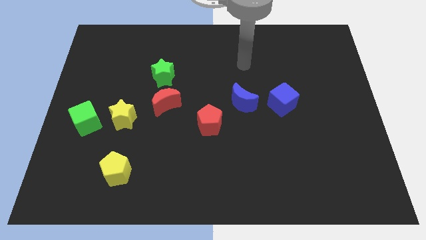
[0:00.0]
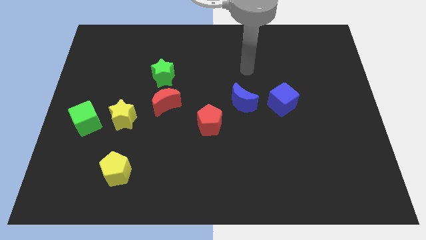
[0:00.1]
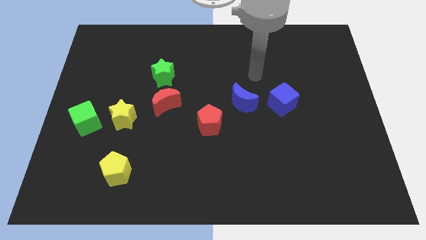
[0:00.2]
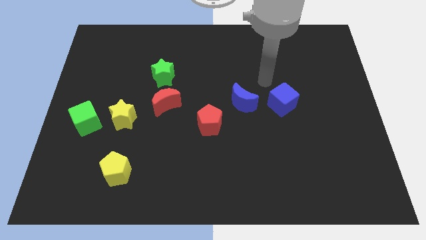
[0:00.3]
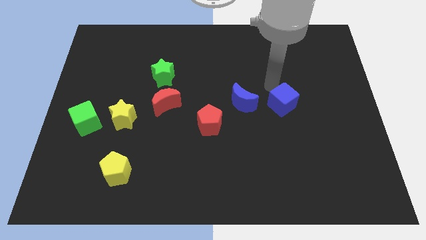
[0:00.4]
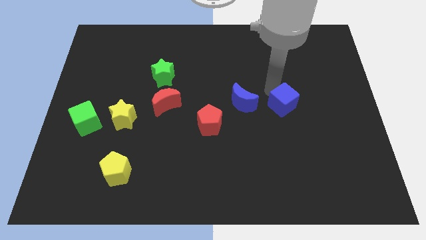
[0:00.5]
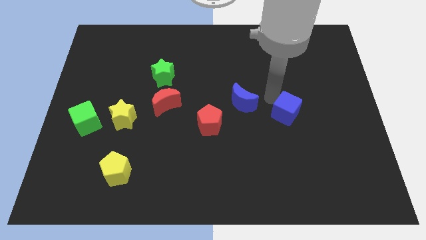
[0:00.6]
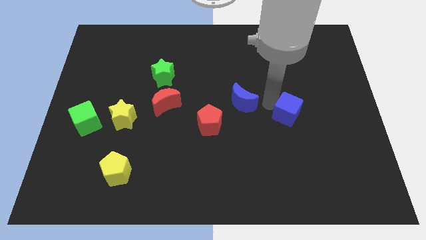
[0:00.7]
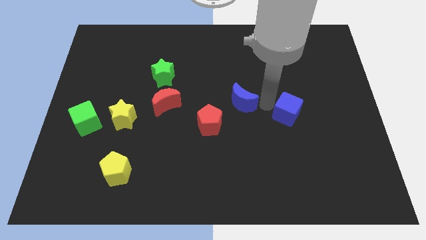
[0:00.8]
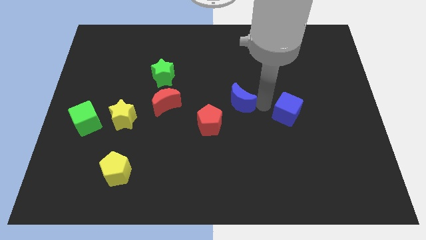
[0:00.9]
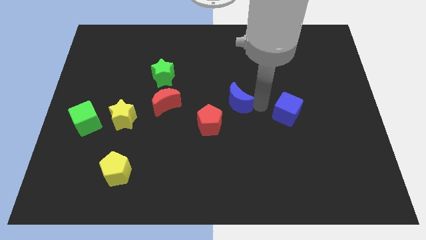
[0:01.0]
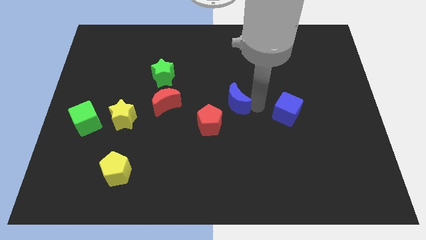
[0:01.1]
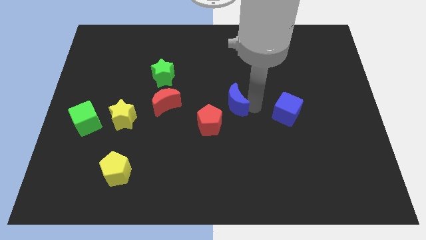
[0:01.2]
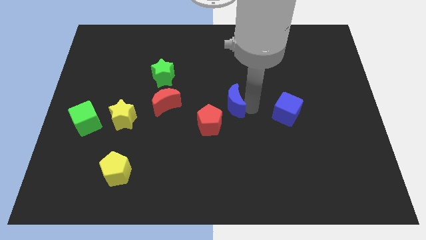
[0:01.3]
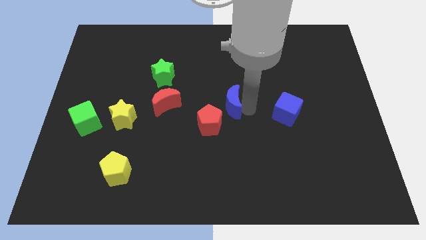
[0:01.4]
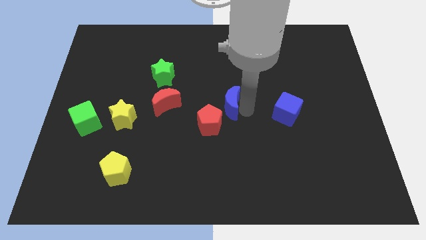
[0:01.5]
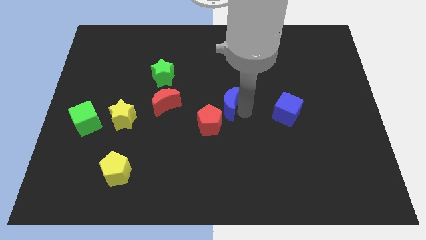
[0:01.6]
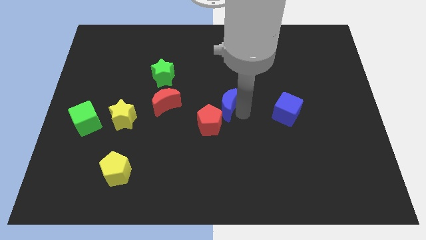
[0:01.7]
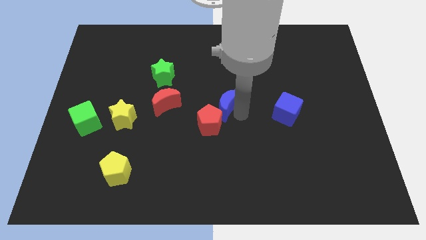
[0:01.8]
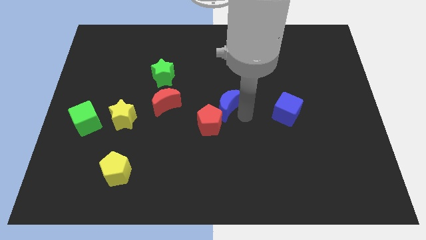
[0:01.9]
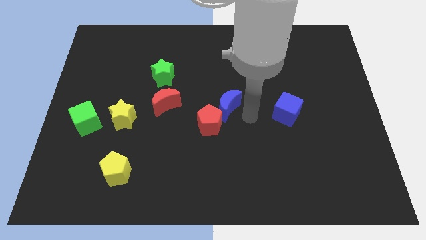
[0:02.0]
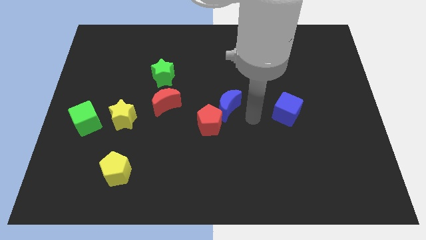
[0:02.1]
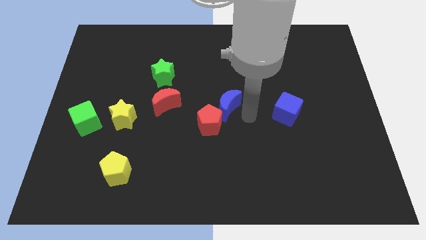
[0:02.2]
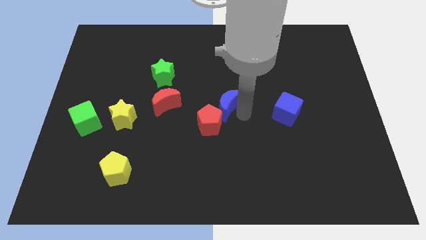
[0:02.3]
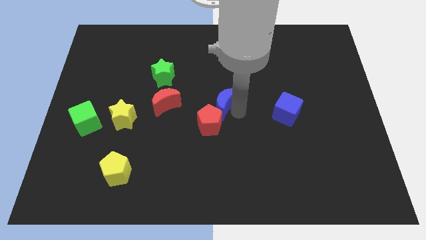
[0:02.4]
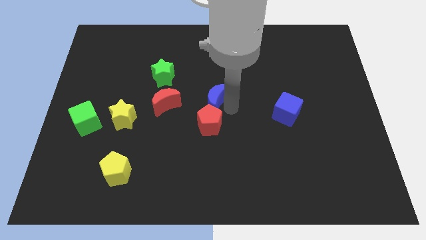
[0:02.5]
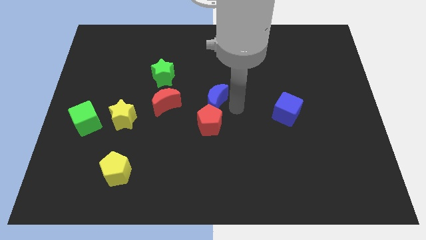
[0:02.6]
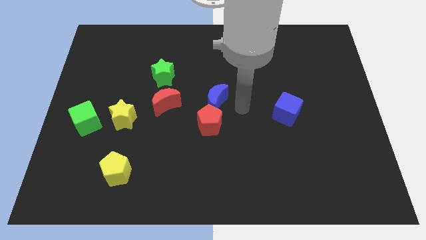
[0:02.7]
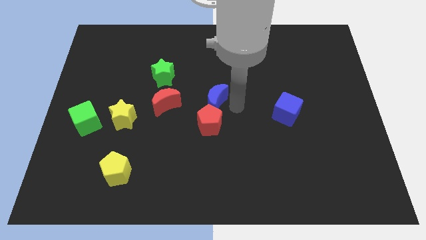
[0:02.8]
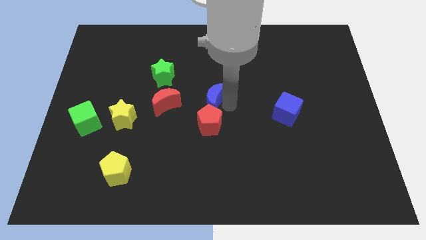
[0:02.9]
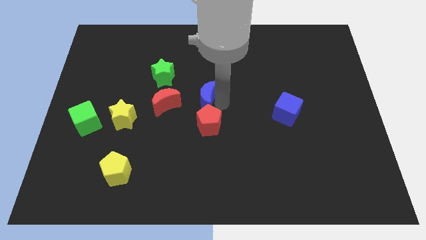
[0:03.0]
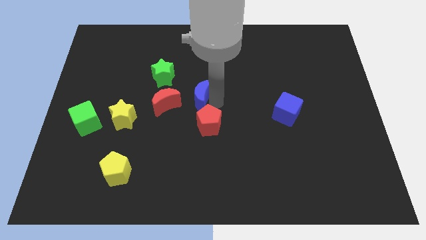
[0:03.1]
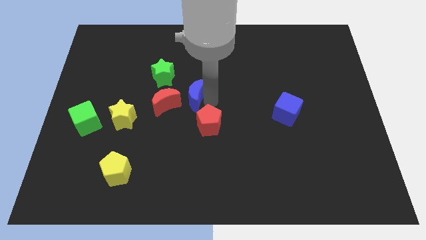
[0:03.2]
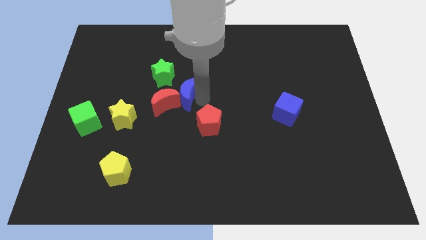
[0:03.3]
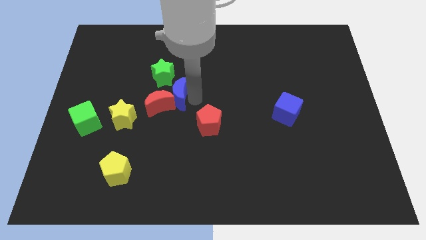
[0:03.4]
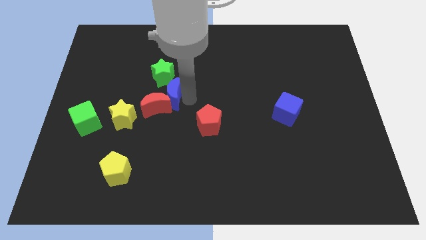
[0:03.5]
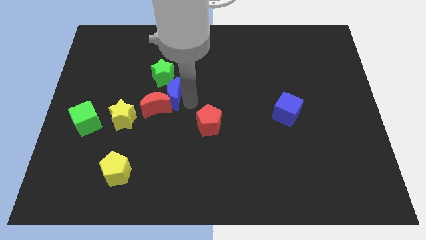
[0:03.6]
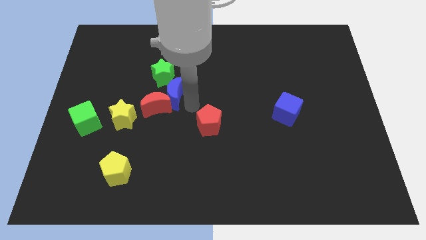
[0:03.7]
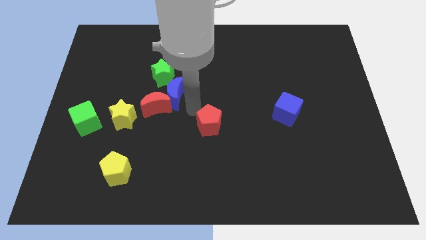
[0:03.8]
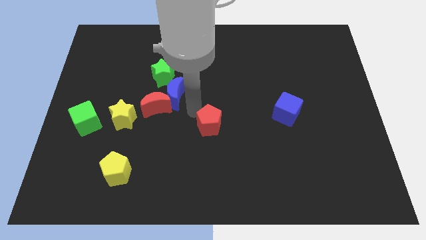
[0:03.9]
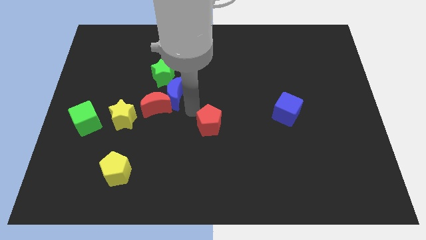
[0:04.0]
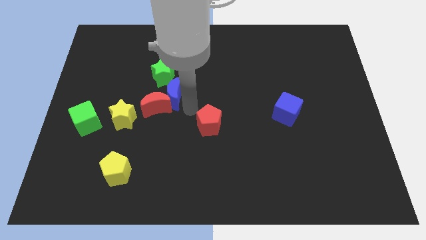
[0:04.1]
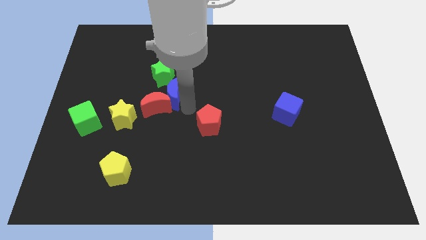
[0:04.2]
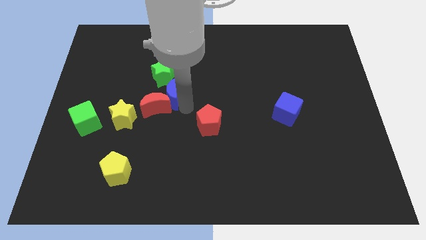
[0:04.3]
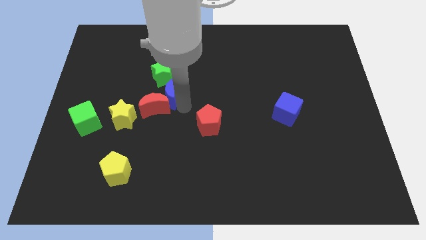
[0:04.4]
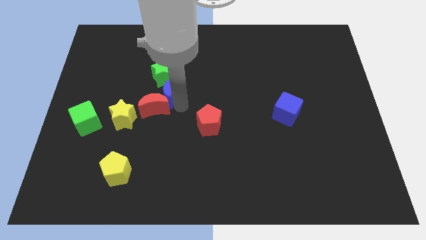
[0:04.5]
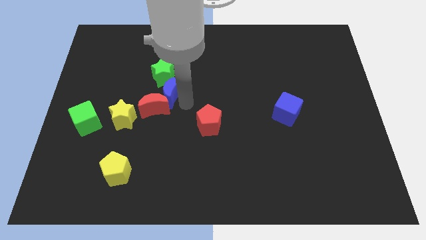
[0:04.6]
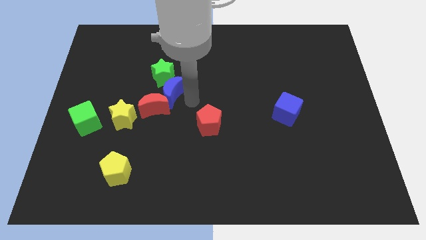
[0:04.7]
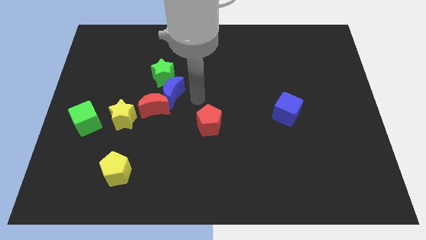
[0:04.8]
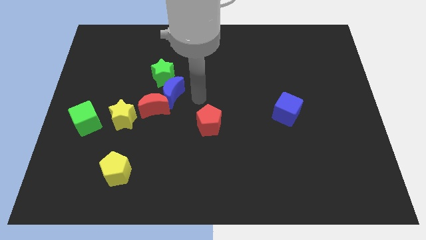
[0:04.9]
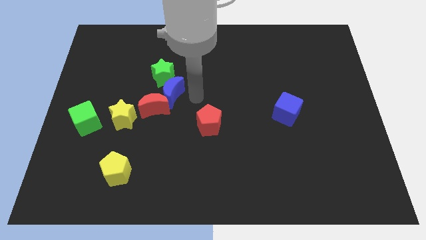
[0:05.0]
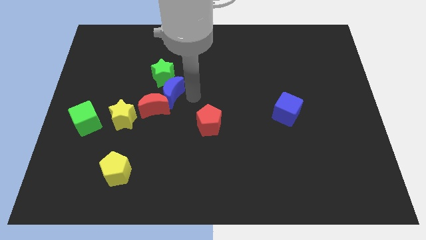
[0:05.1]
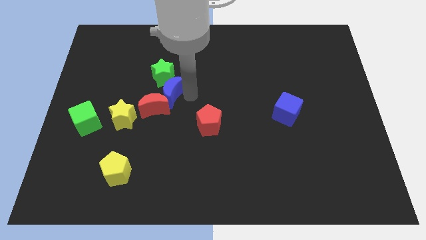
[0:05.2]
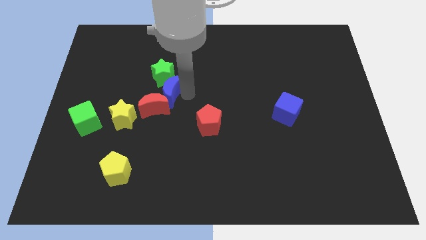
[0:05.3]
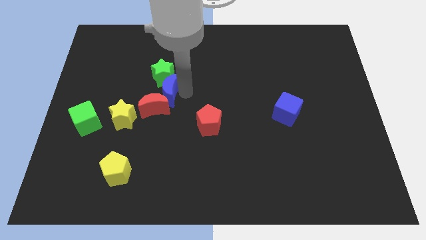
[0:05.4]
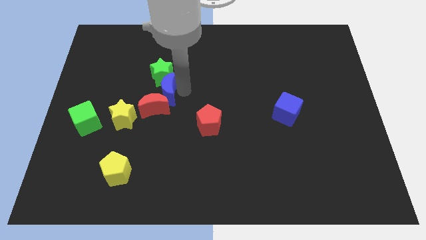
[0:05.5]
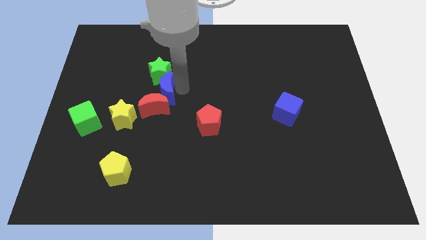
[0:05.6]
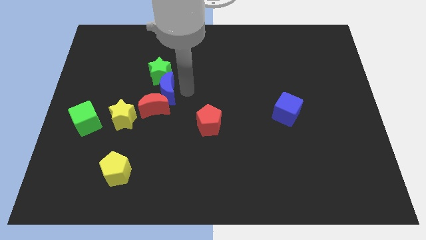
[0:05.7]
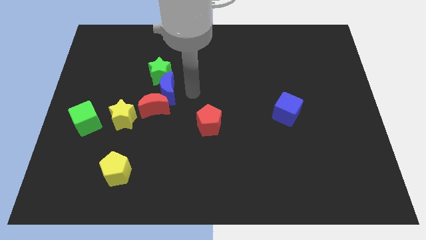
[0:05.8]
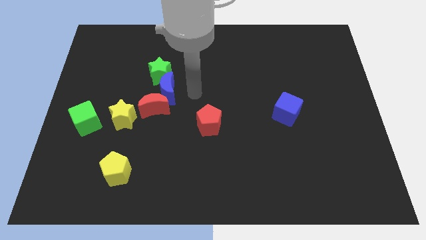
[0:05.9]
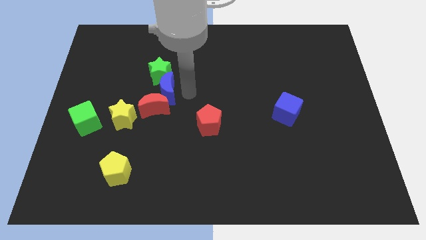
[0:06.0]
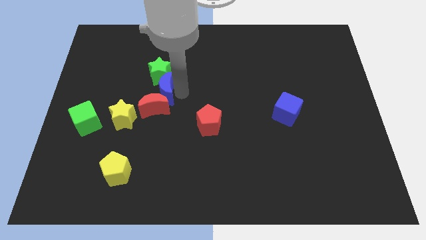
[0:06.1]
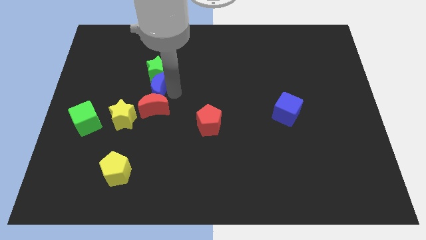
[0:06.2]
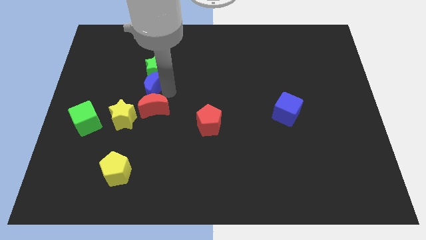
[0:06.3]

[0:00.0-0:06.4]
move the blue moon left

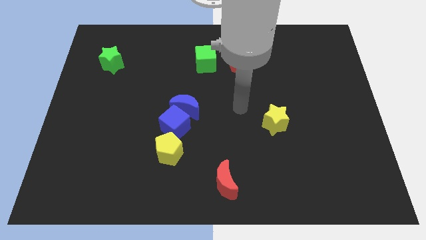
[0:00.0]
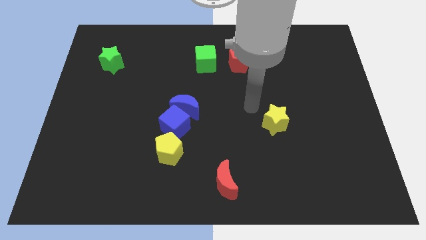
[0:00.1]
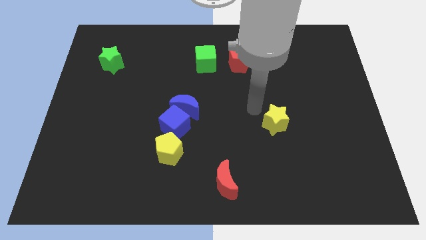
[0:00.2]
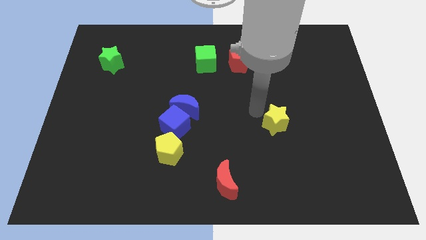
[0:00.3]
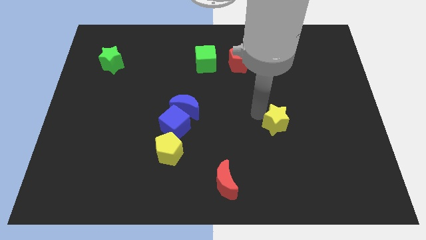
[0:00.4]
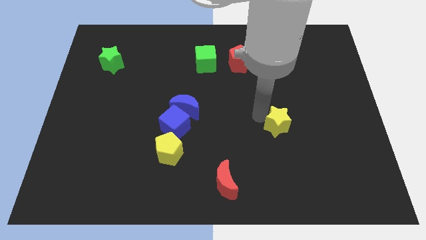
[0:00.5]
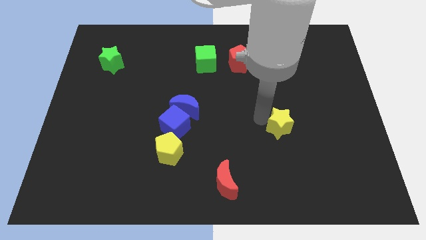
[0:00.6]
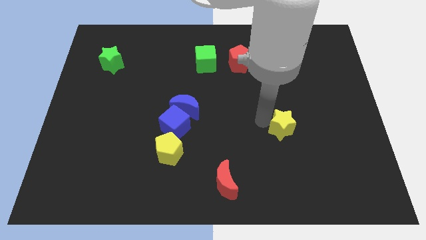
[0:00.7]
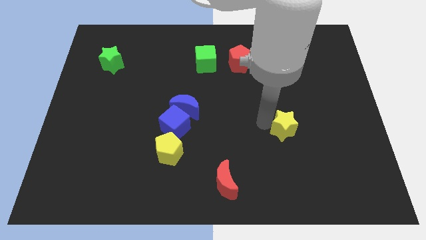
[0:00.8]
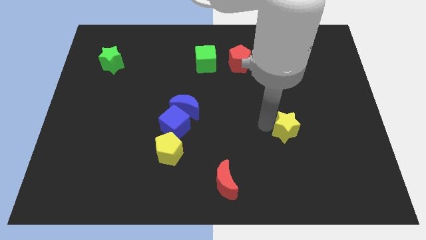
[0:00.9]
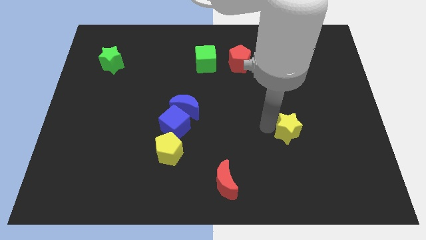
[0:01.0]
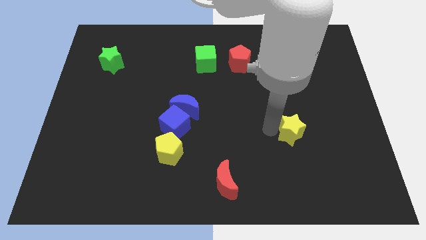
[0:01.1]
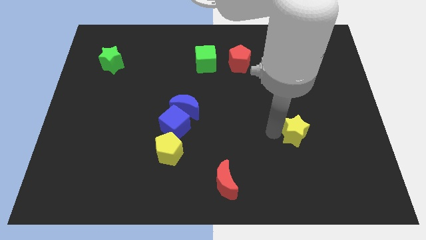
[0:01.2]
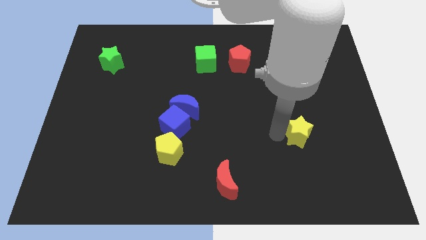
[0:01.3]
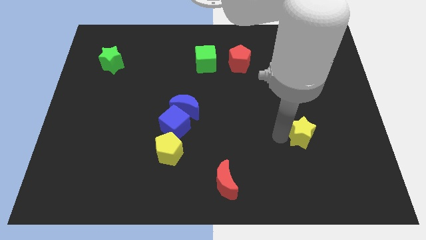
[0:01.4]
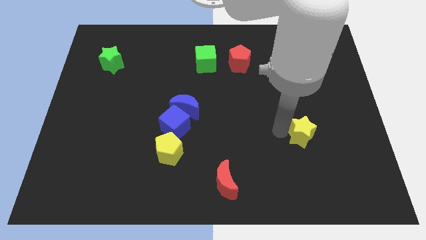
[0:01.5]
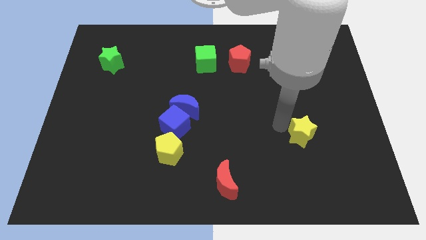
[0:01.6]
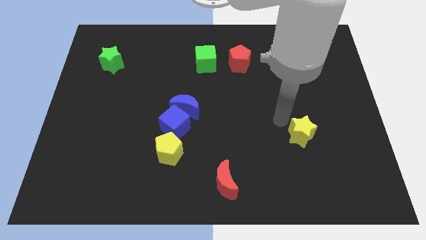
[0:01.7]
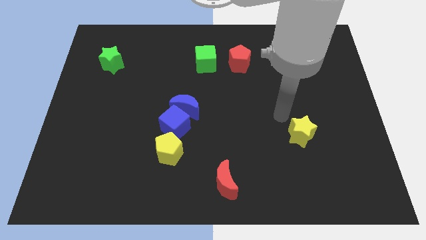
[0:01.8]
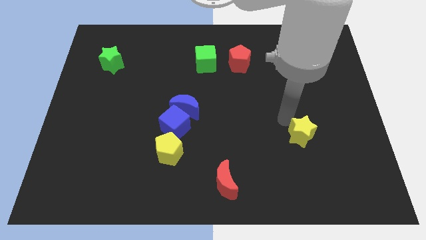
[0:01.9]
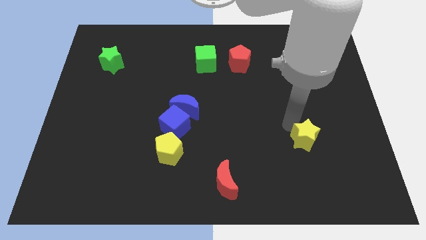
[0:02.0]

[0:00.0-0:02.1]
slightly slide the yellow star downwards and to the right diagonally

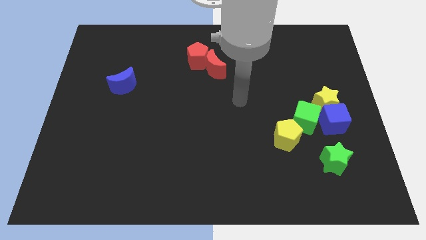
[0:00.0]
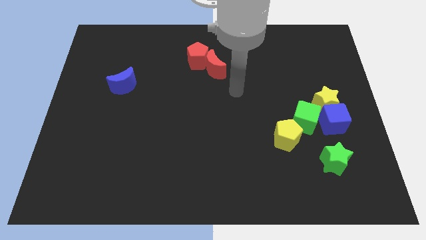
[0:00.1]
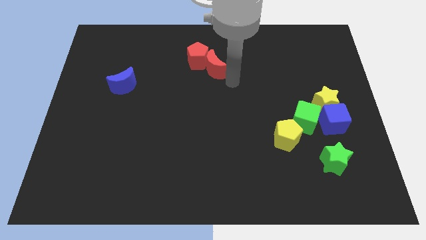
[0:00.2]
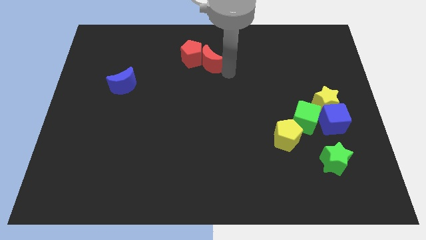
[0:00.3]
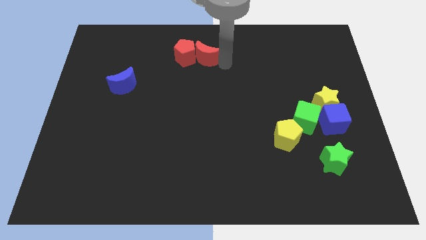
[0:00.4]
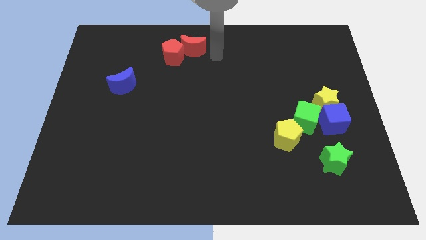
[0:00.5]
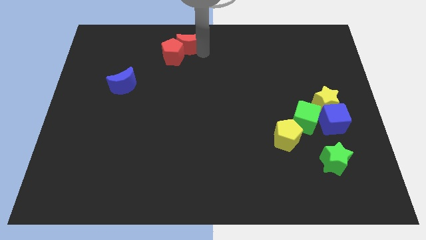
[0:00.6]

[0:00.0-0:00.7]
slide the red pentagon left a bit
